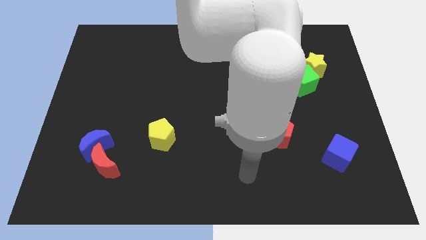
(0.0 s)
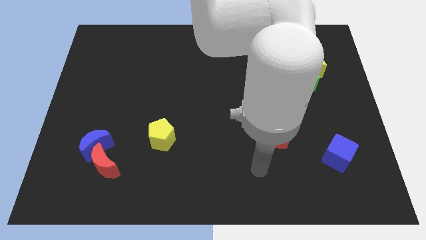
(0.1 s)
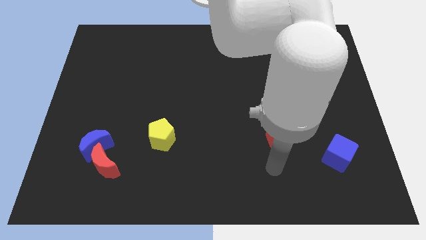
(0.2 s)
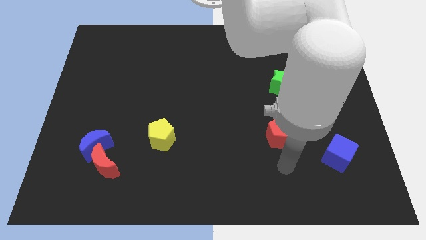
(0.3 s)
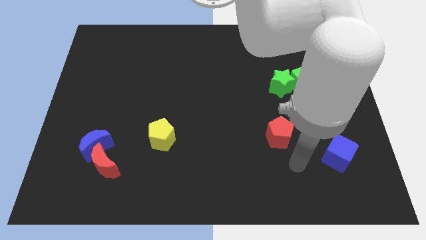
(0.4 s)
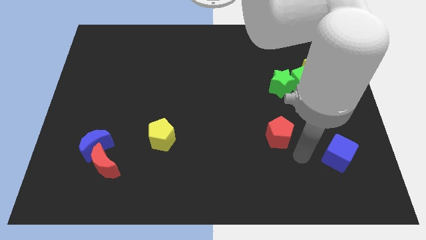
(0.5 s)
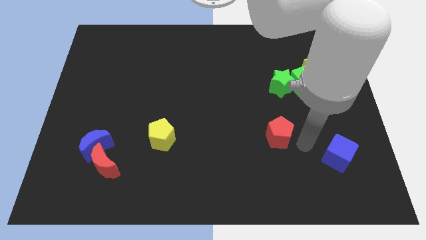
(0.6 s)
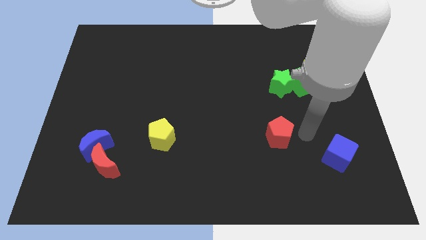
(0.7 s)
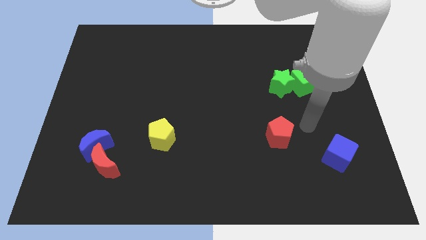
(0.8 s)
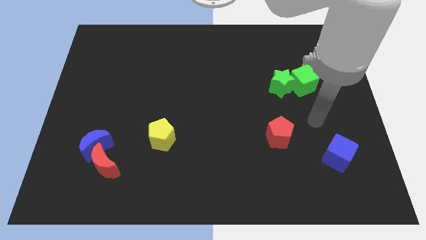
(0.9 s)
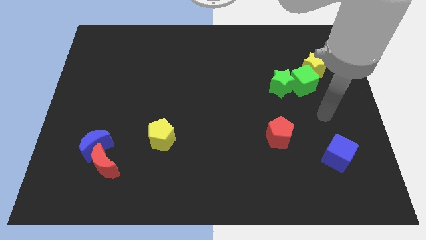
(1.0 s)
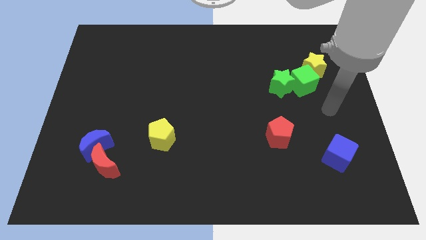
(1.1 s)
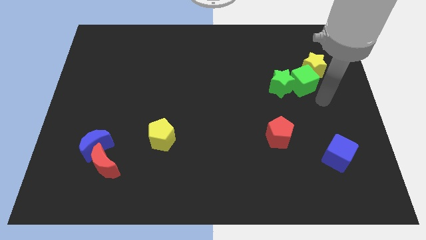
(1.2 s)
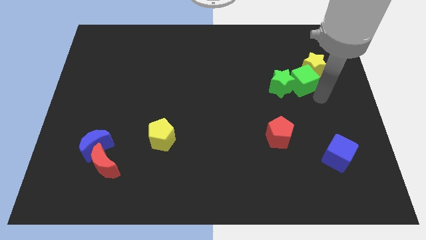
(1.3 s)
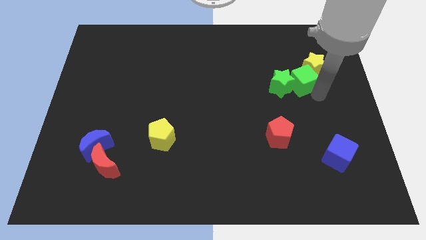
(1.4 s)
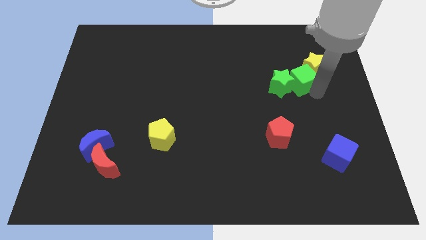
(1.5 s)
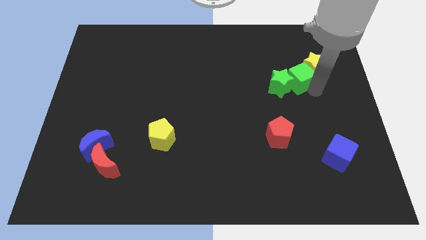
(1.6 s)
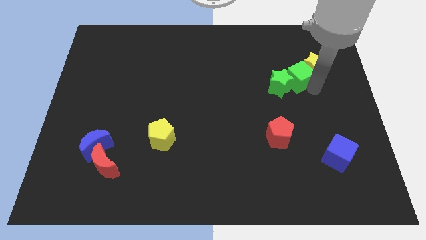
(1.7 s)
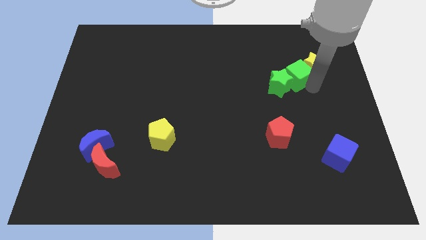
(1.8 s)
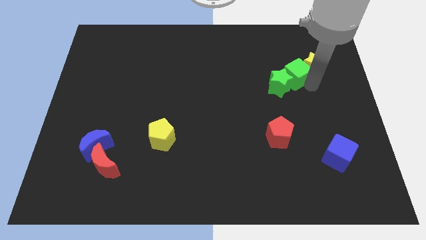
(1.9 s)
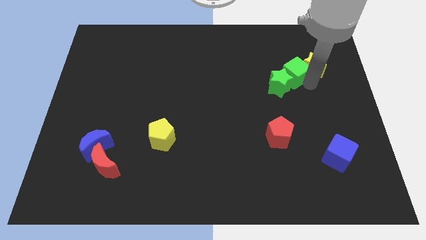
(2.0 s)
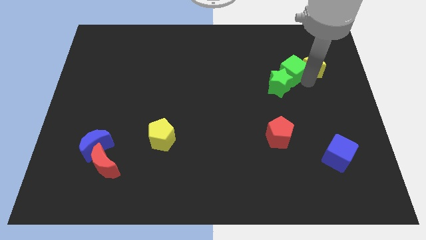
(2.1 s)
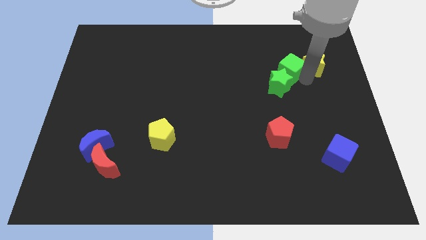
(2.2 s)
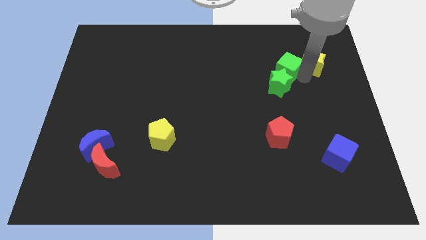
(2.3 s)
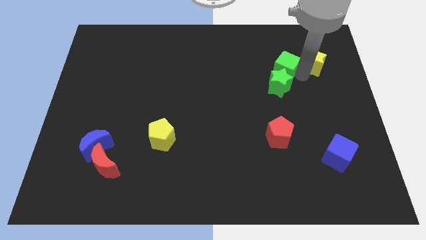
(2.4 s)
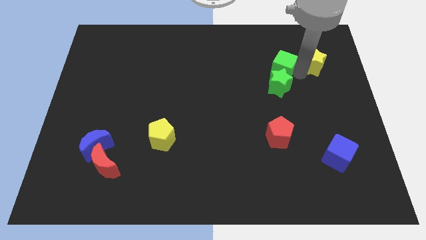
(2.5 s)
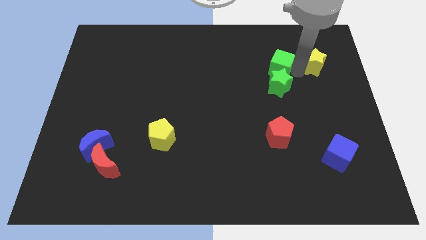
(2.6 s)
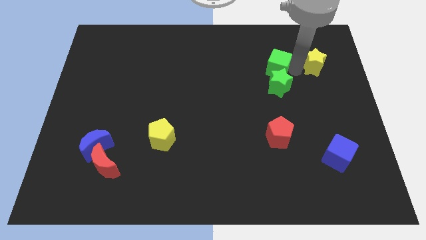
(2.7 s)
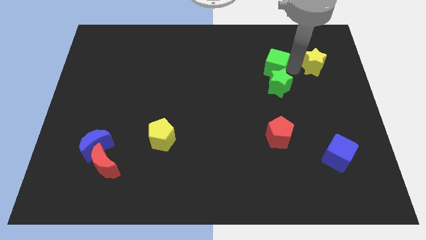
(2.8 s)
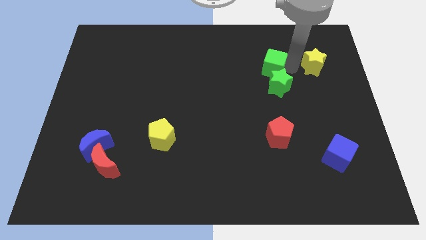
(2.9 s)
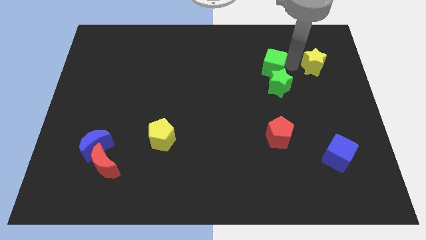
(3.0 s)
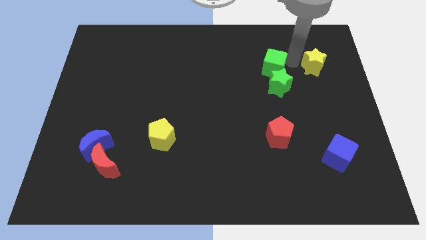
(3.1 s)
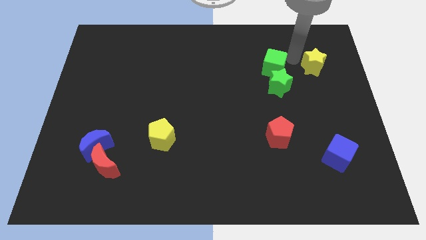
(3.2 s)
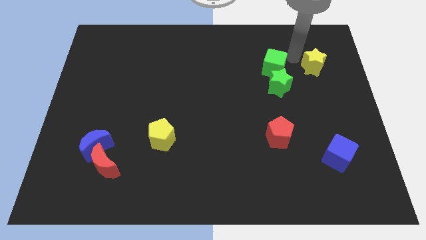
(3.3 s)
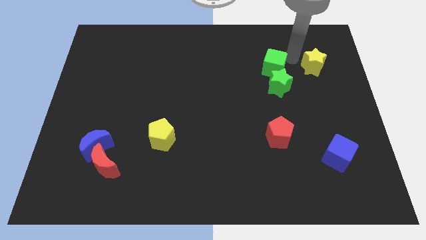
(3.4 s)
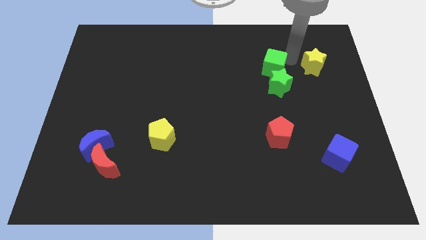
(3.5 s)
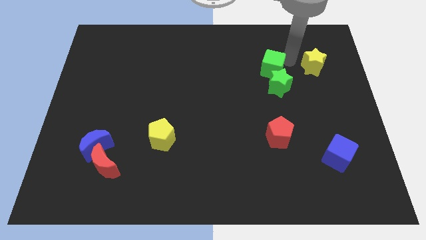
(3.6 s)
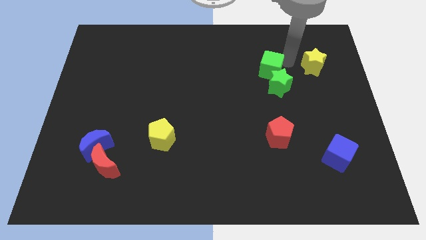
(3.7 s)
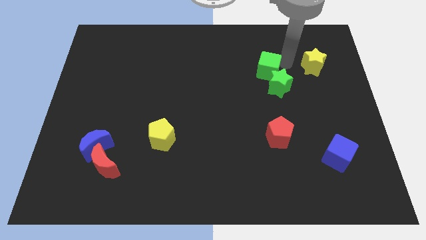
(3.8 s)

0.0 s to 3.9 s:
push the green cube left somewhat

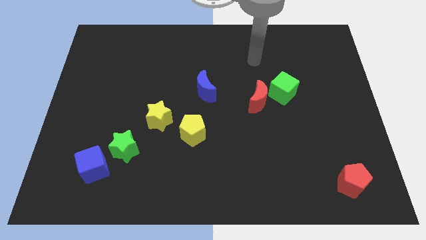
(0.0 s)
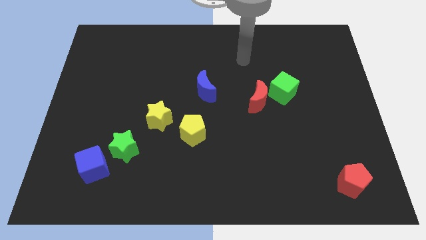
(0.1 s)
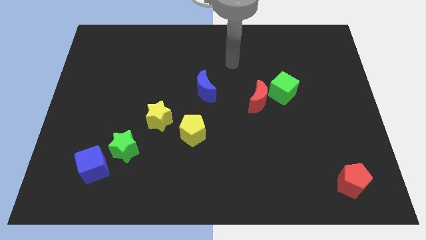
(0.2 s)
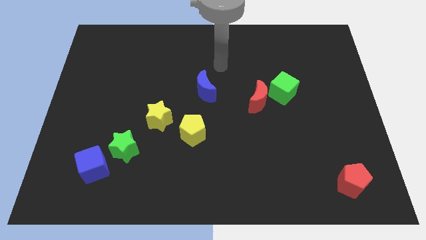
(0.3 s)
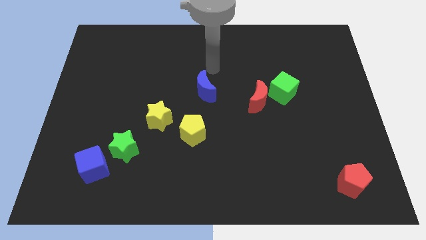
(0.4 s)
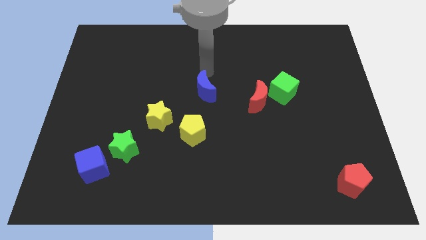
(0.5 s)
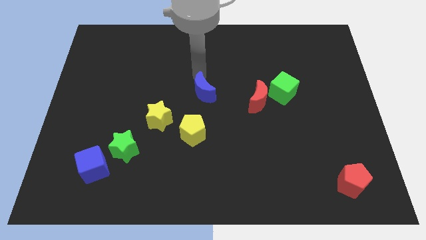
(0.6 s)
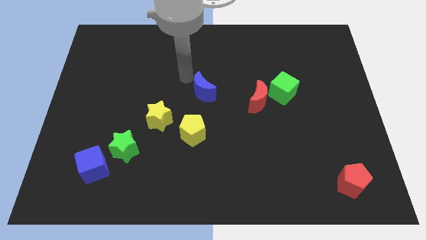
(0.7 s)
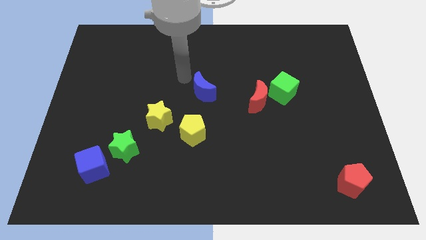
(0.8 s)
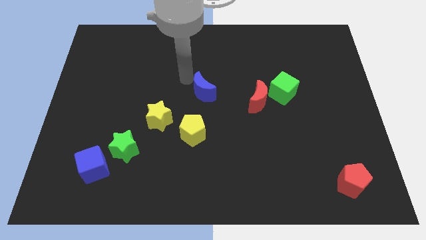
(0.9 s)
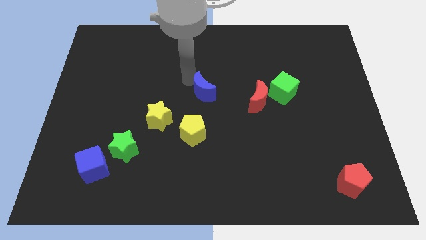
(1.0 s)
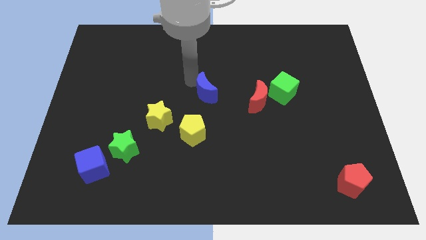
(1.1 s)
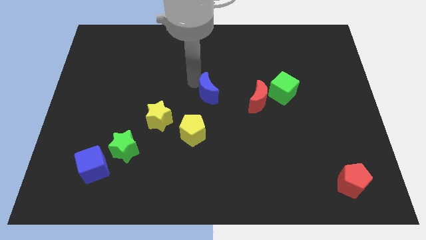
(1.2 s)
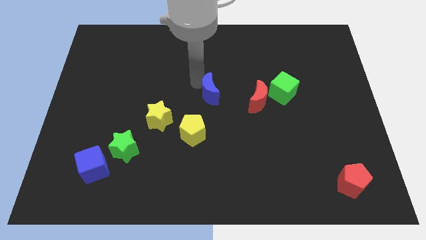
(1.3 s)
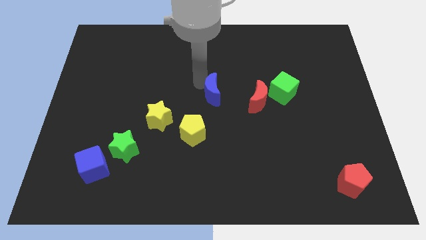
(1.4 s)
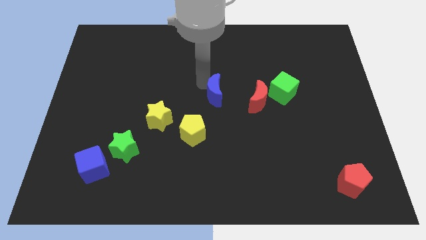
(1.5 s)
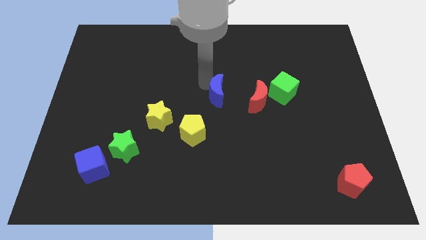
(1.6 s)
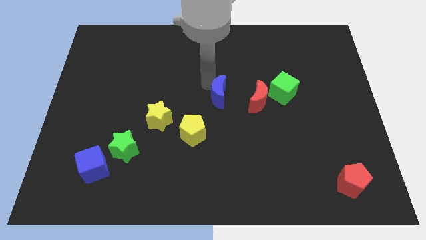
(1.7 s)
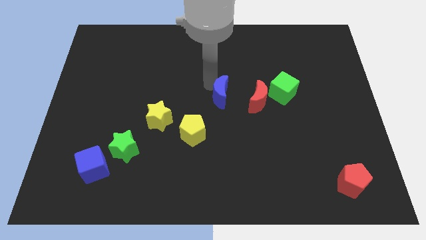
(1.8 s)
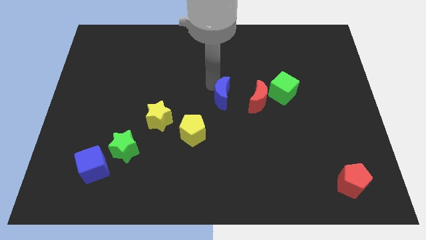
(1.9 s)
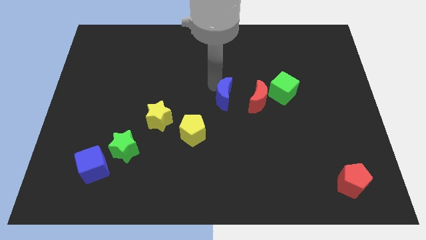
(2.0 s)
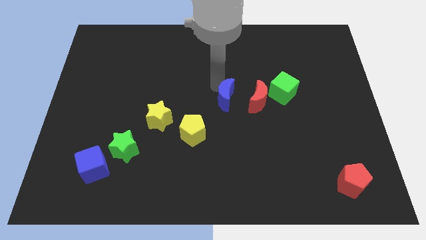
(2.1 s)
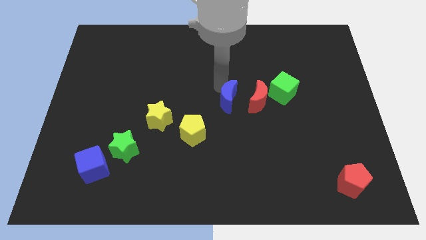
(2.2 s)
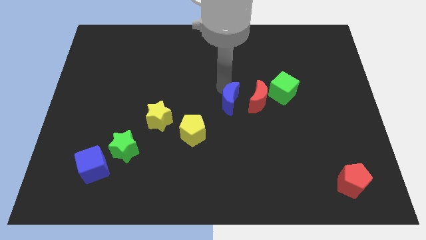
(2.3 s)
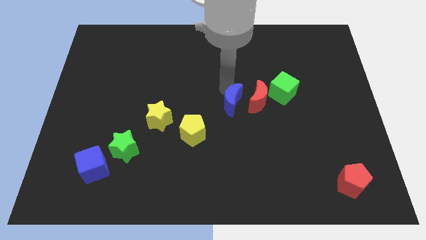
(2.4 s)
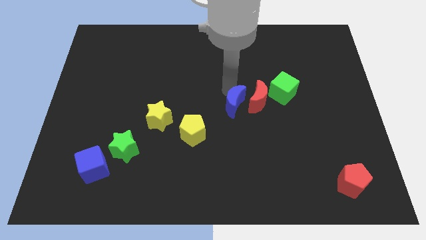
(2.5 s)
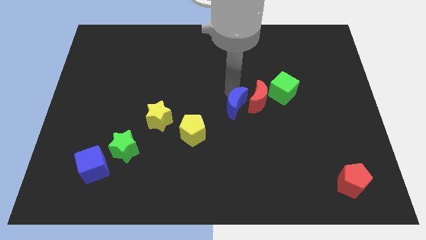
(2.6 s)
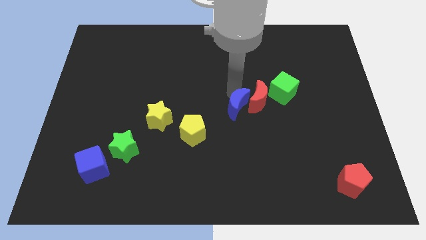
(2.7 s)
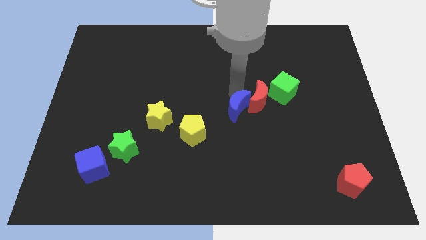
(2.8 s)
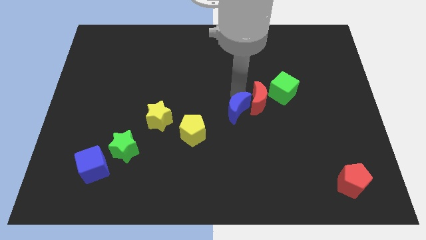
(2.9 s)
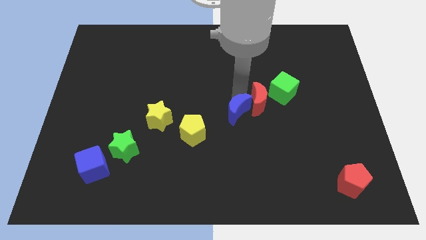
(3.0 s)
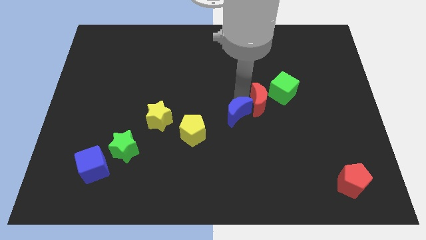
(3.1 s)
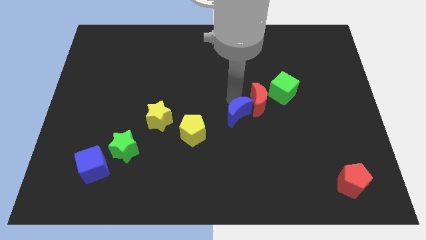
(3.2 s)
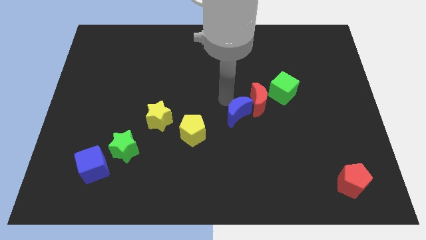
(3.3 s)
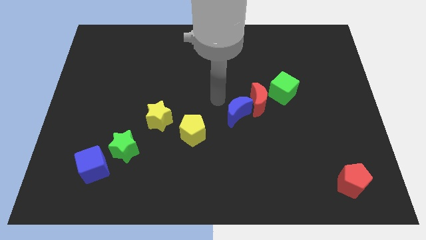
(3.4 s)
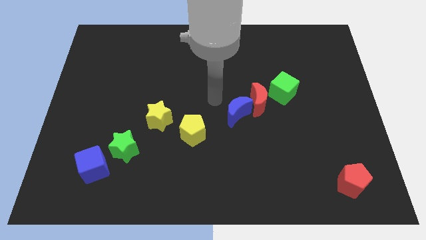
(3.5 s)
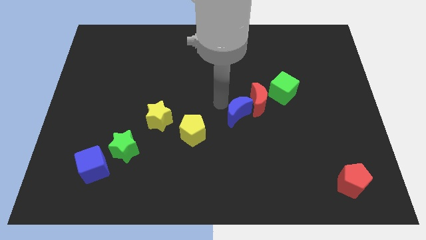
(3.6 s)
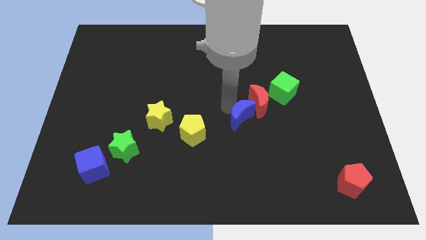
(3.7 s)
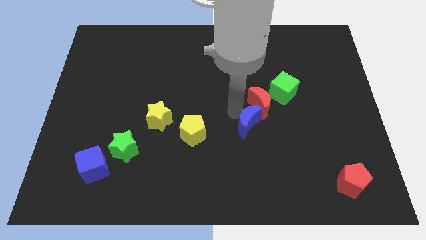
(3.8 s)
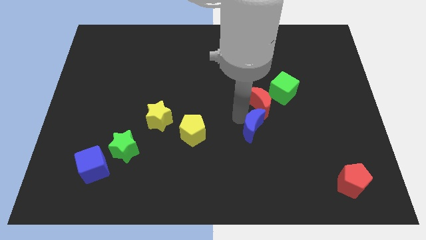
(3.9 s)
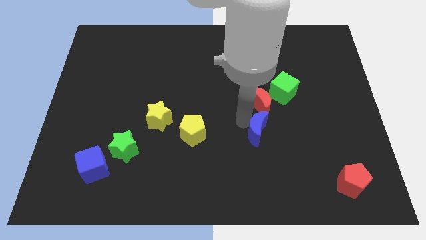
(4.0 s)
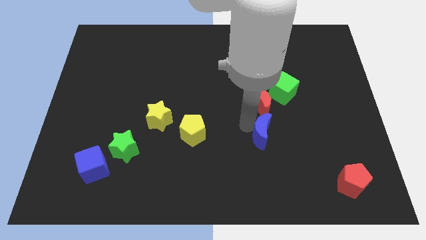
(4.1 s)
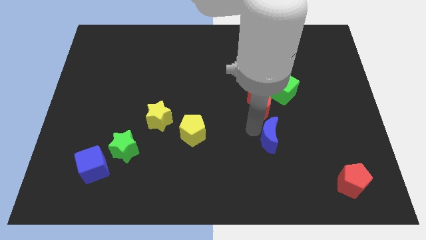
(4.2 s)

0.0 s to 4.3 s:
move the blue moon downwards and then to the right
